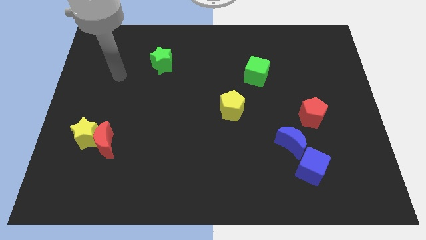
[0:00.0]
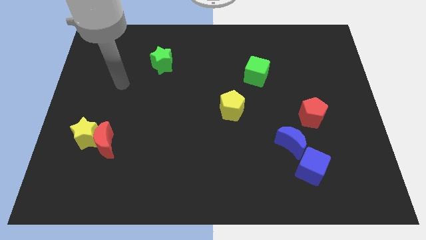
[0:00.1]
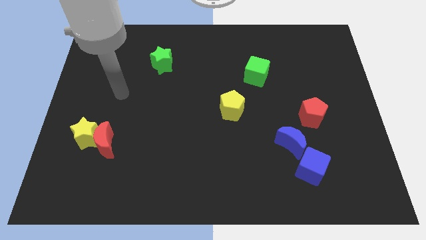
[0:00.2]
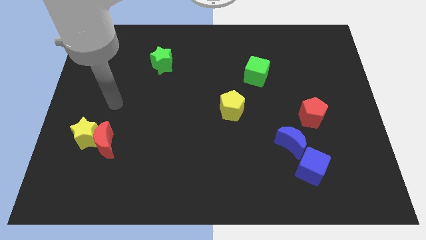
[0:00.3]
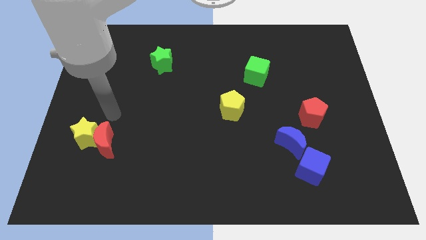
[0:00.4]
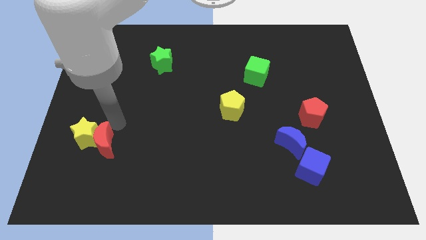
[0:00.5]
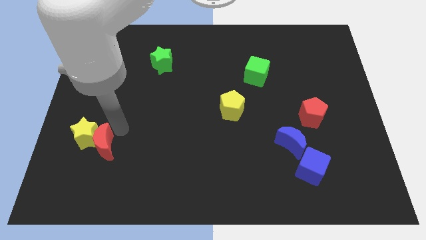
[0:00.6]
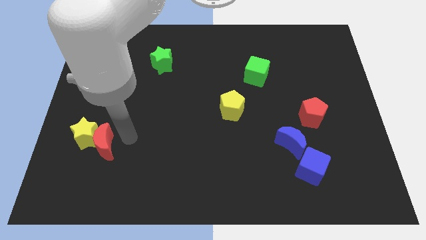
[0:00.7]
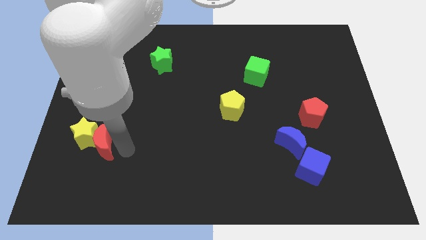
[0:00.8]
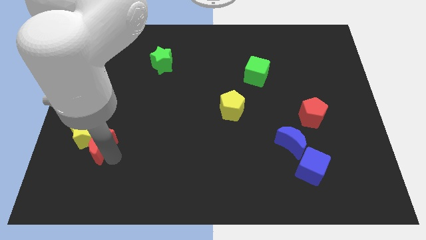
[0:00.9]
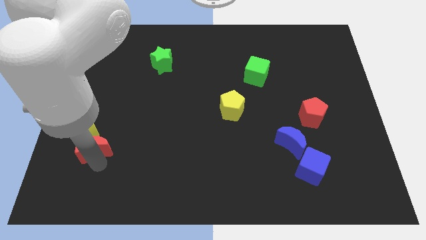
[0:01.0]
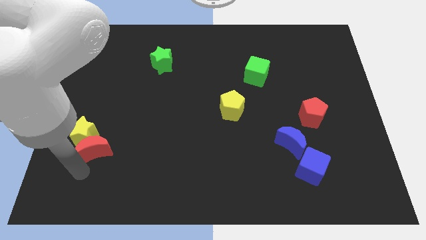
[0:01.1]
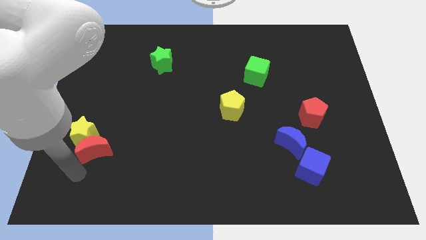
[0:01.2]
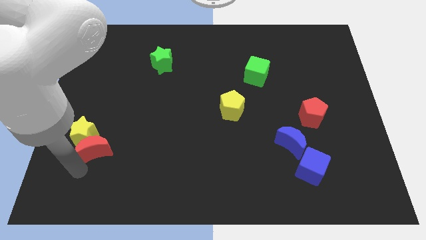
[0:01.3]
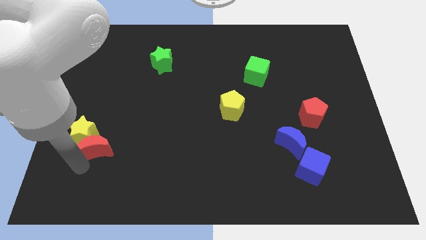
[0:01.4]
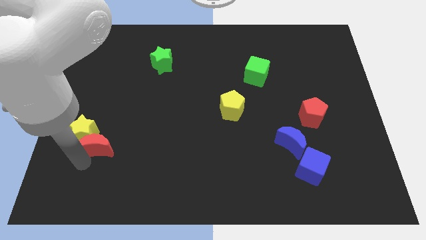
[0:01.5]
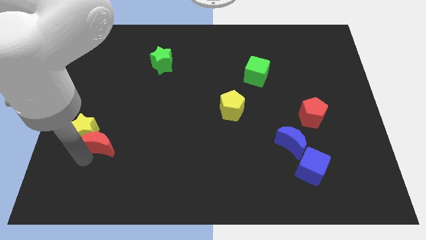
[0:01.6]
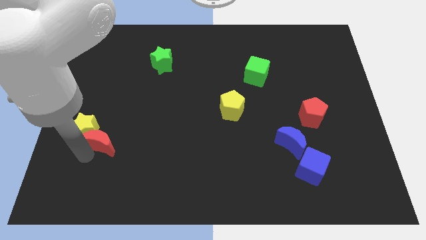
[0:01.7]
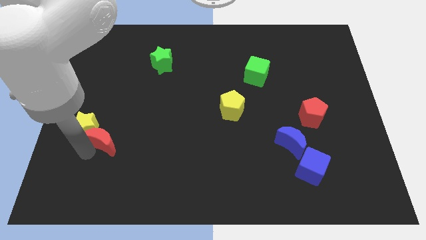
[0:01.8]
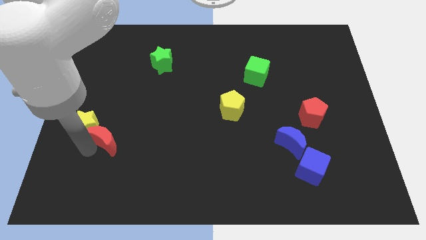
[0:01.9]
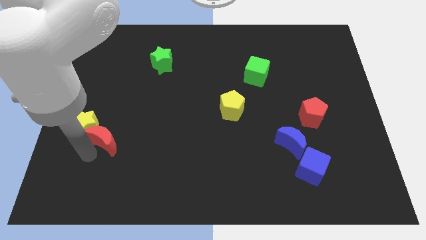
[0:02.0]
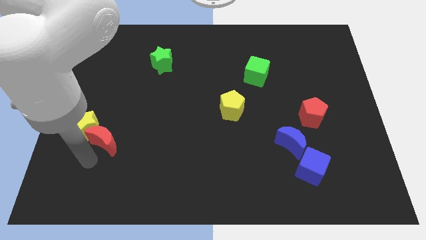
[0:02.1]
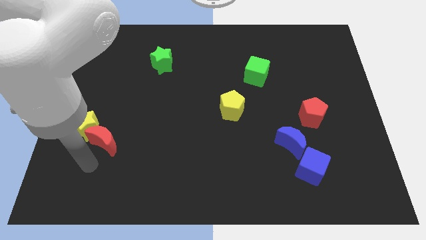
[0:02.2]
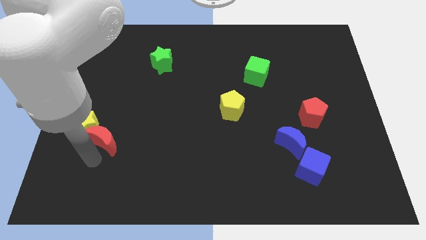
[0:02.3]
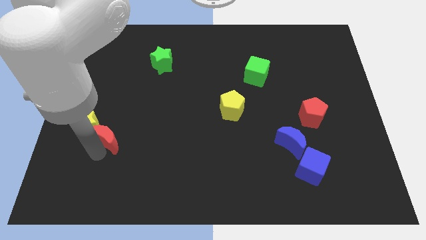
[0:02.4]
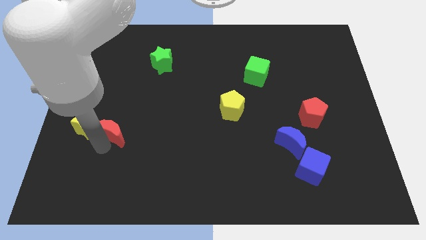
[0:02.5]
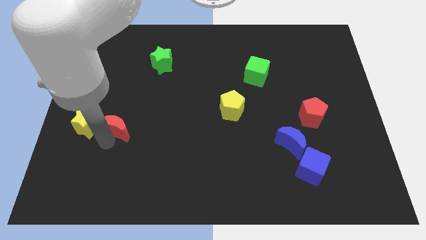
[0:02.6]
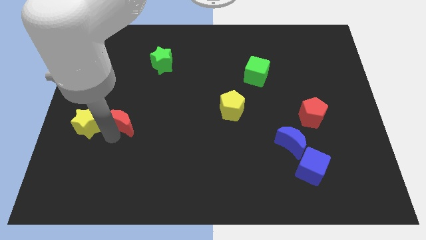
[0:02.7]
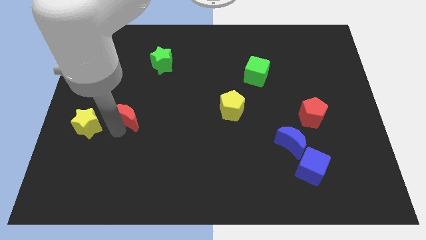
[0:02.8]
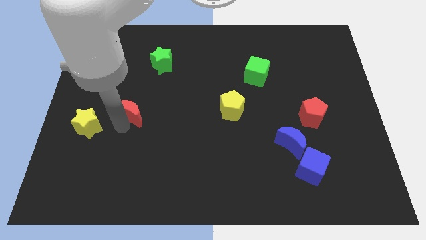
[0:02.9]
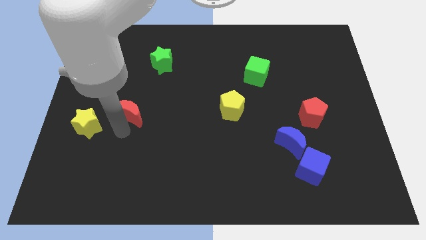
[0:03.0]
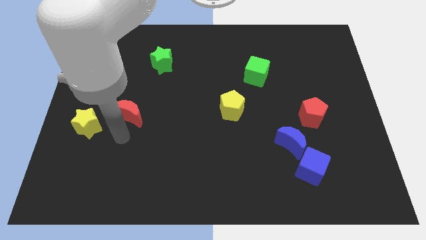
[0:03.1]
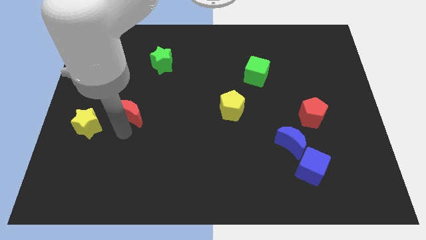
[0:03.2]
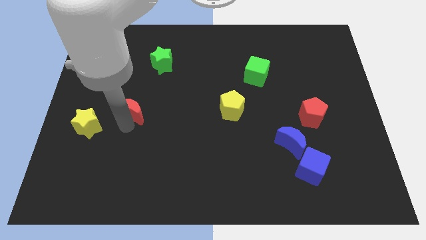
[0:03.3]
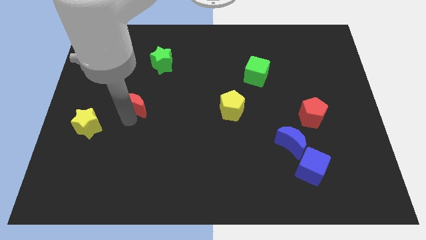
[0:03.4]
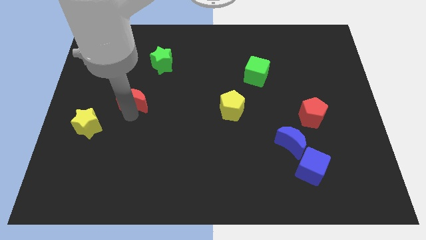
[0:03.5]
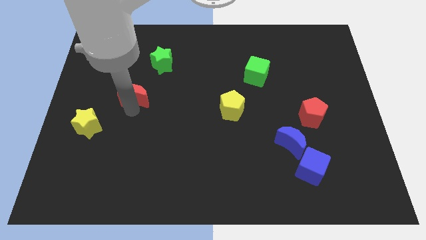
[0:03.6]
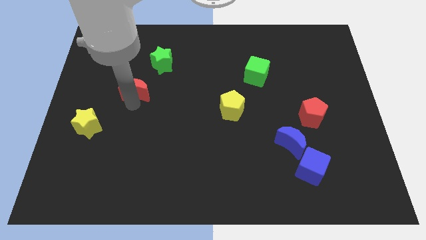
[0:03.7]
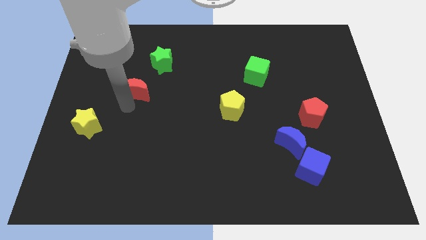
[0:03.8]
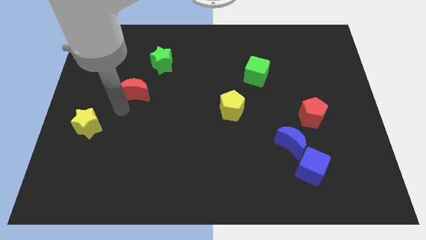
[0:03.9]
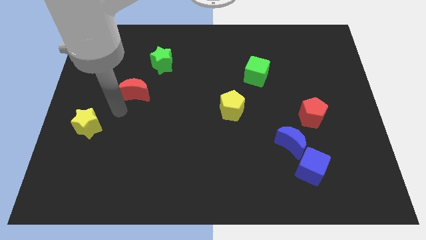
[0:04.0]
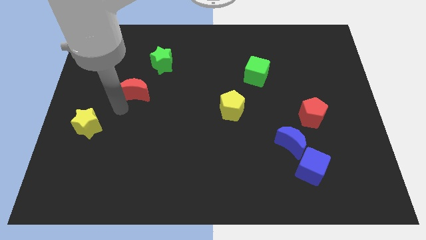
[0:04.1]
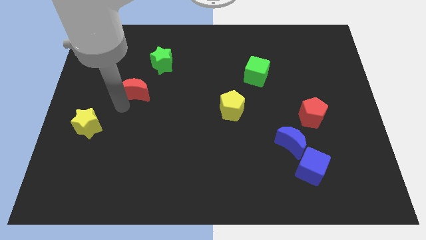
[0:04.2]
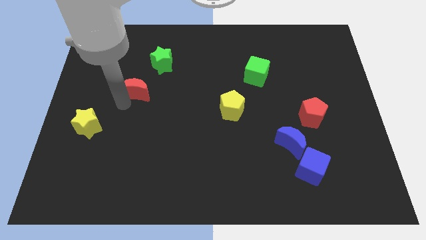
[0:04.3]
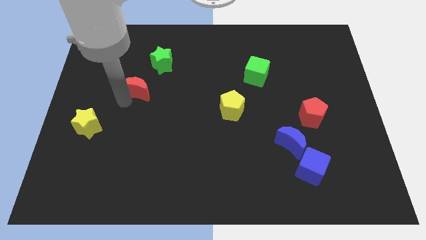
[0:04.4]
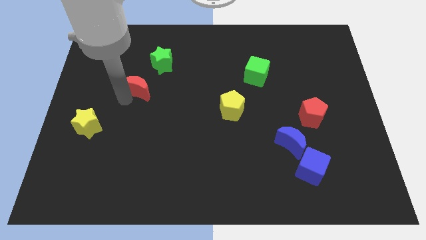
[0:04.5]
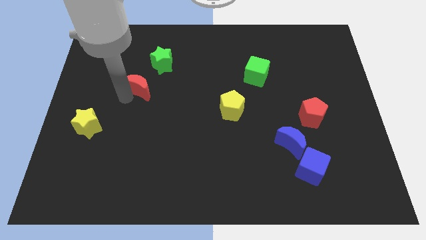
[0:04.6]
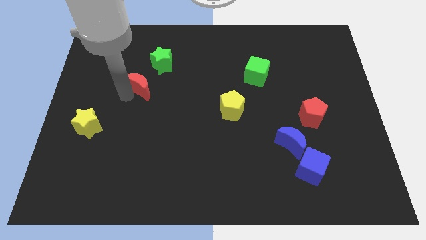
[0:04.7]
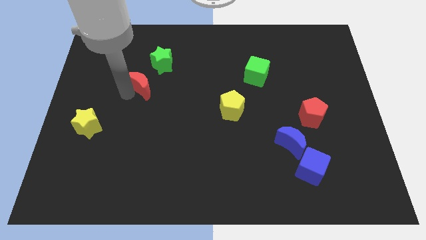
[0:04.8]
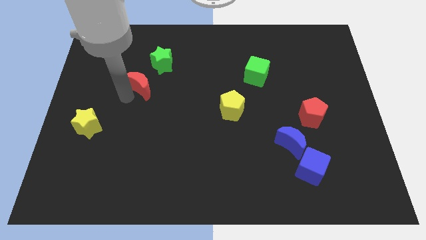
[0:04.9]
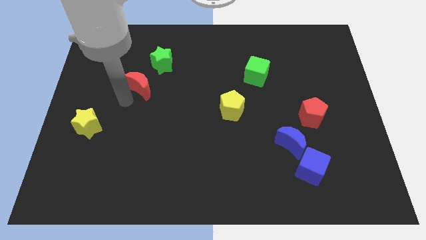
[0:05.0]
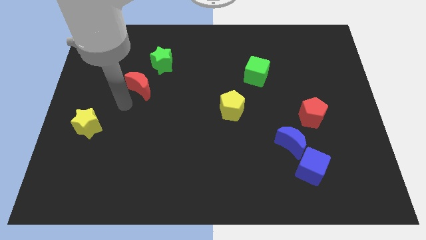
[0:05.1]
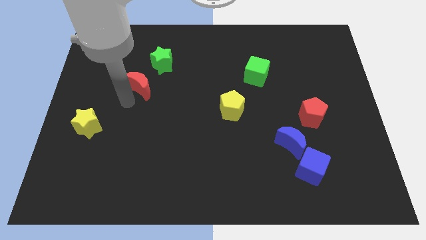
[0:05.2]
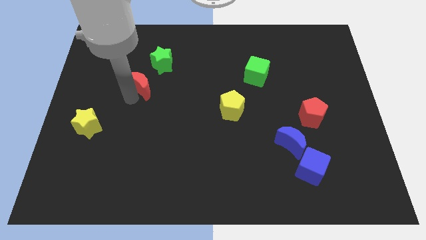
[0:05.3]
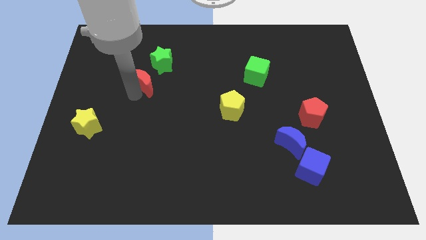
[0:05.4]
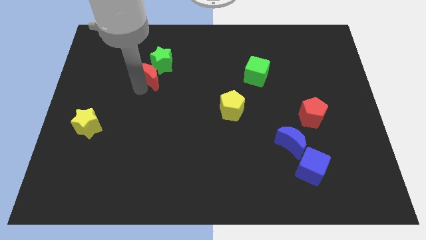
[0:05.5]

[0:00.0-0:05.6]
slide the red moon towards the green star

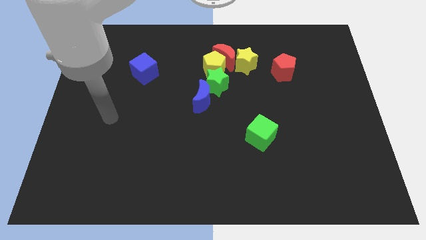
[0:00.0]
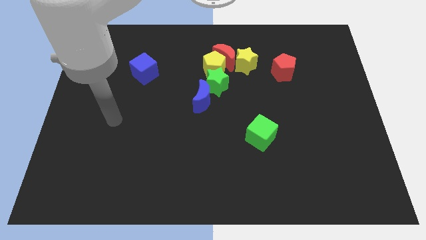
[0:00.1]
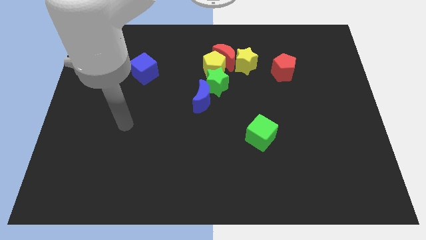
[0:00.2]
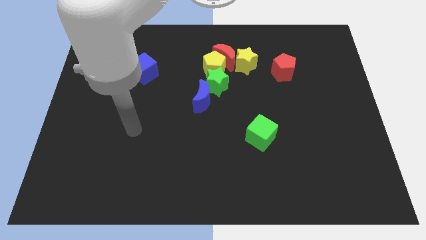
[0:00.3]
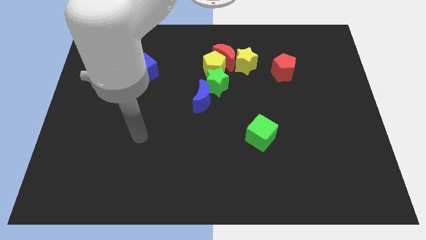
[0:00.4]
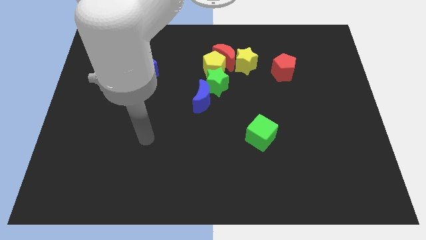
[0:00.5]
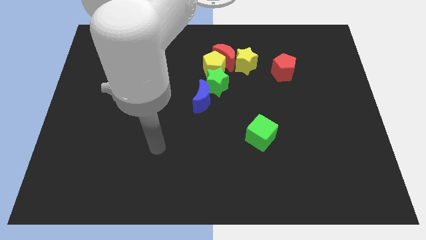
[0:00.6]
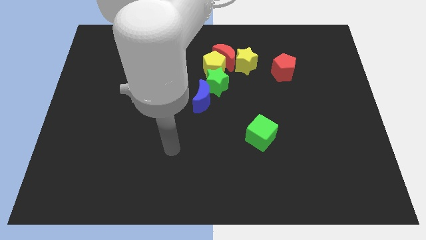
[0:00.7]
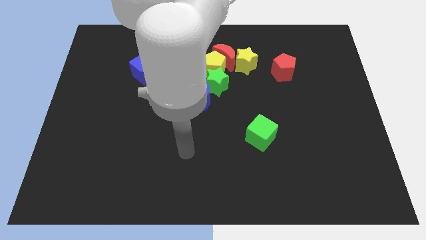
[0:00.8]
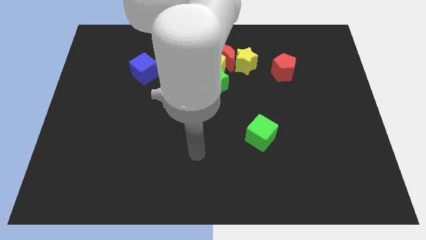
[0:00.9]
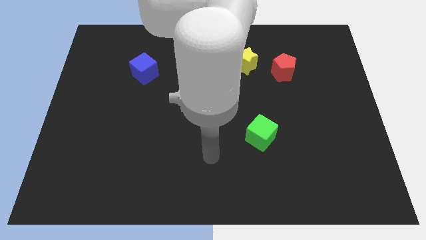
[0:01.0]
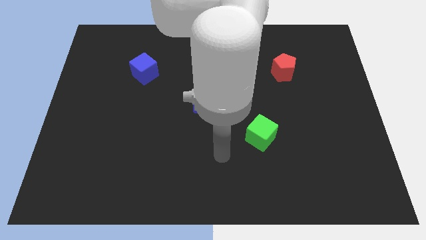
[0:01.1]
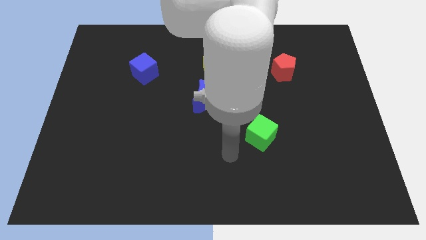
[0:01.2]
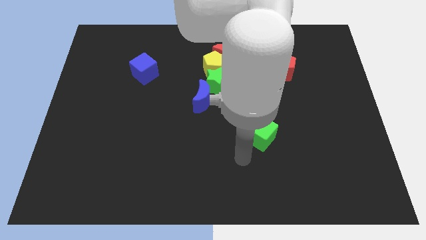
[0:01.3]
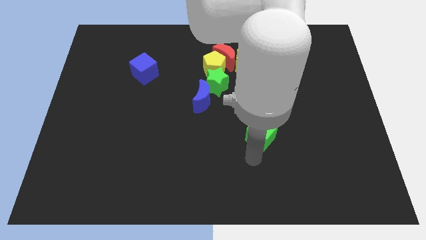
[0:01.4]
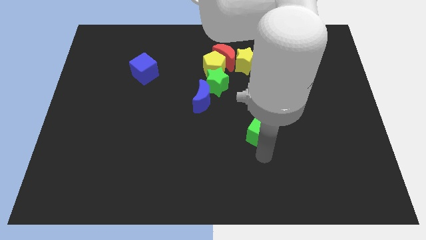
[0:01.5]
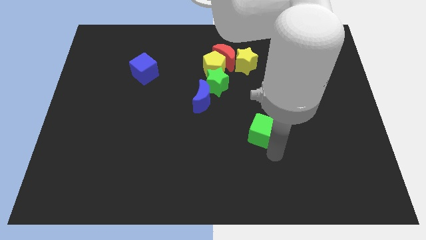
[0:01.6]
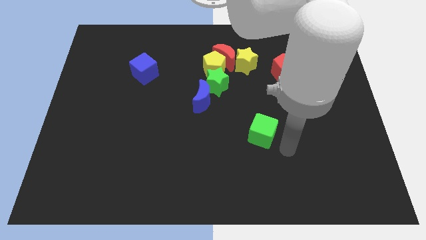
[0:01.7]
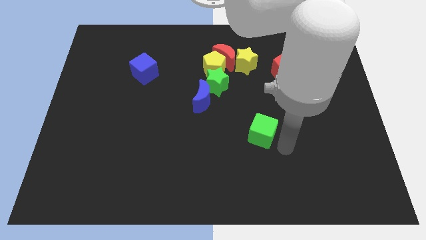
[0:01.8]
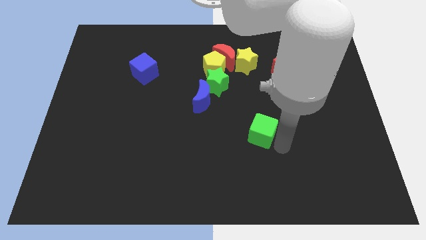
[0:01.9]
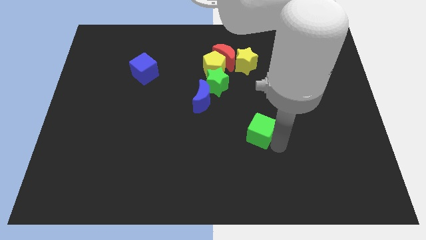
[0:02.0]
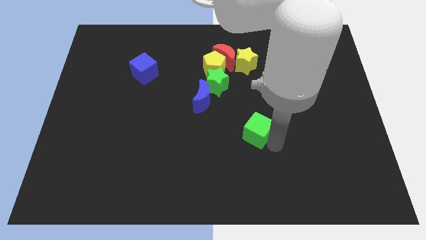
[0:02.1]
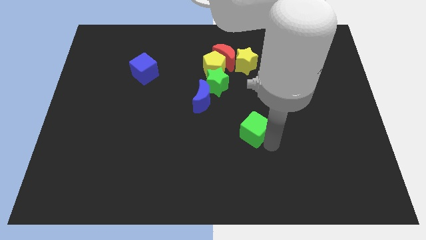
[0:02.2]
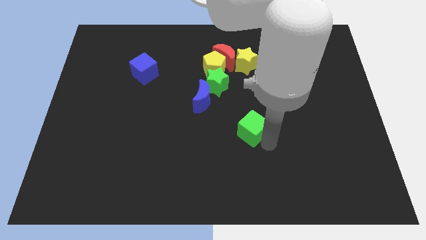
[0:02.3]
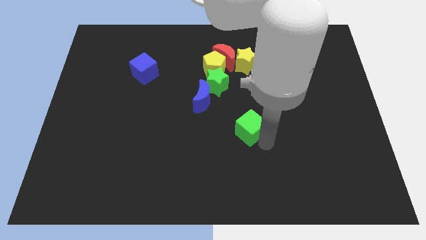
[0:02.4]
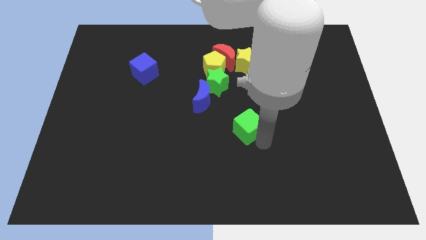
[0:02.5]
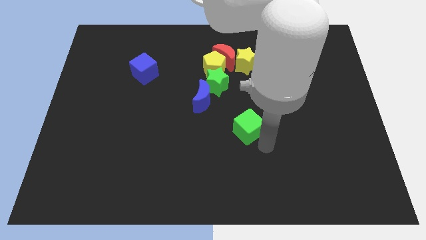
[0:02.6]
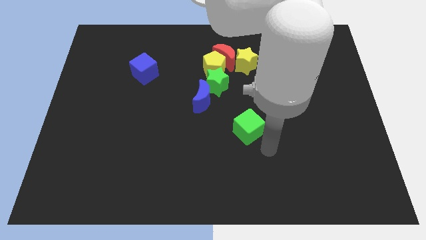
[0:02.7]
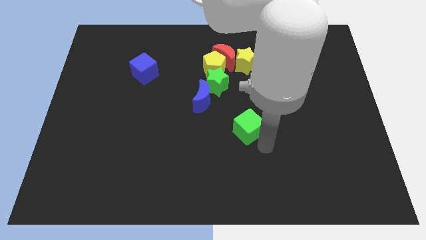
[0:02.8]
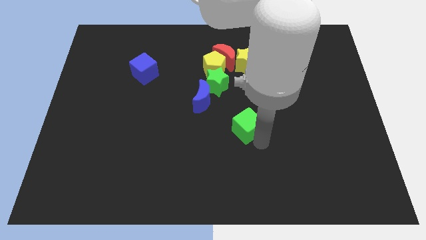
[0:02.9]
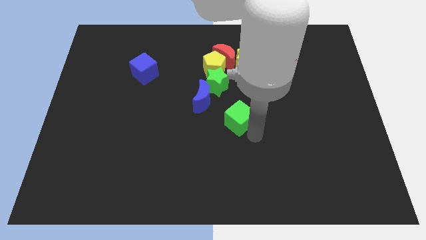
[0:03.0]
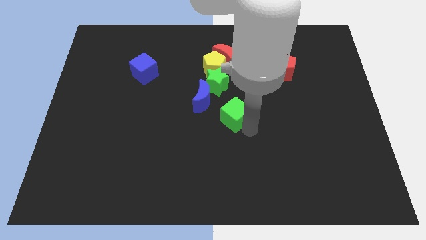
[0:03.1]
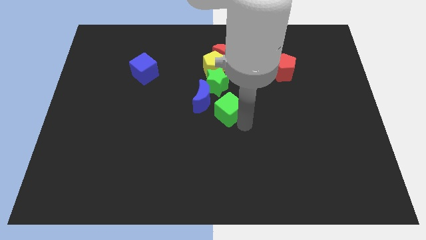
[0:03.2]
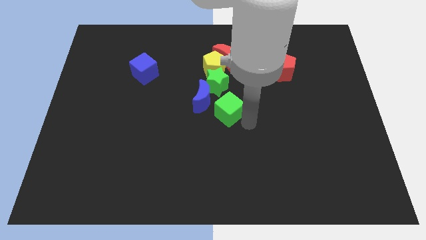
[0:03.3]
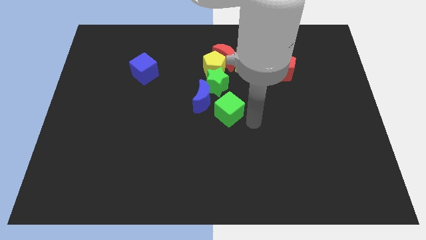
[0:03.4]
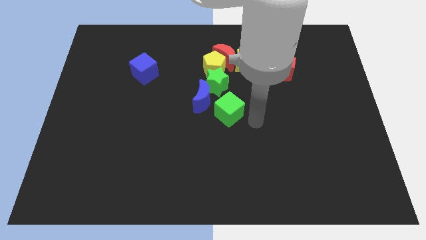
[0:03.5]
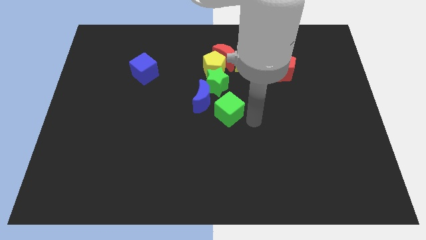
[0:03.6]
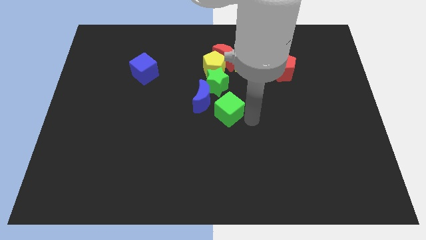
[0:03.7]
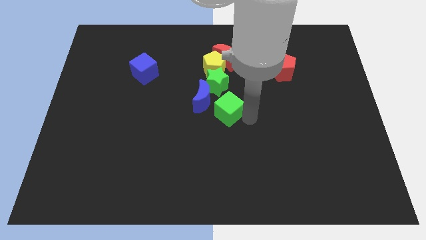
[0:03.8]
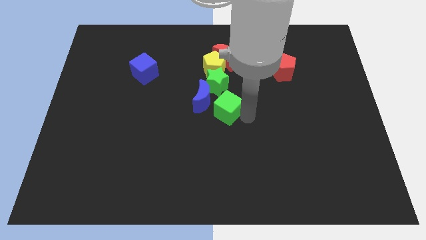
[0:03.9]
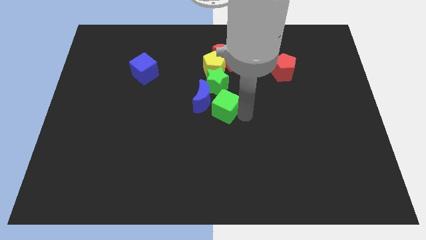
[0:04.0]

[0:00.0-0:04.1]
slide the green cube close to the blue moon
